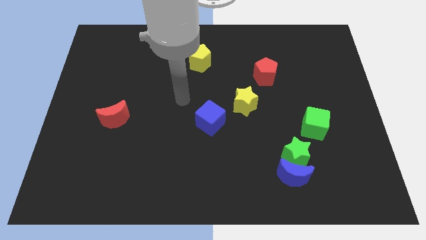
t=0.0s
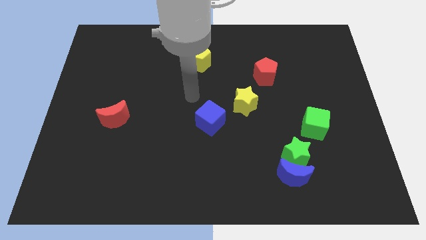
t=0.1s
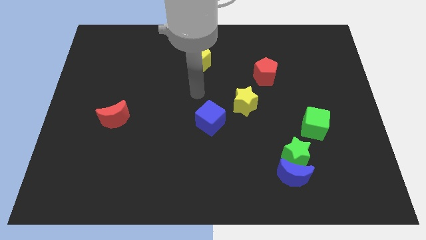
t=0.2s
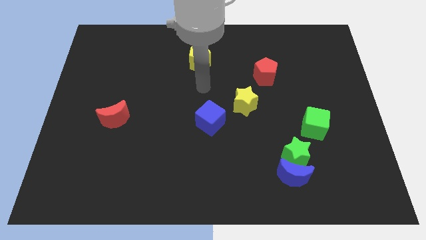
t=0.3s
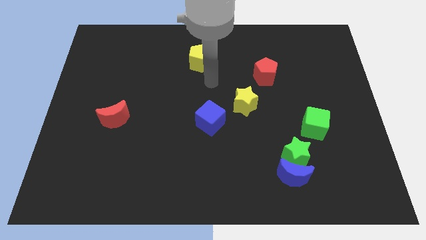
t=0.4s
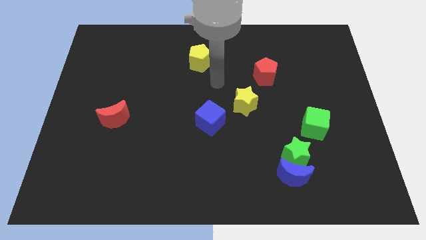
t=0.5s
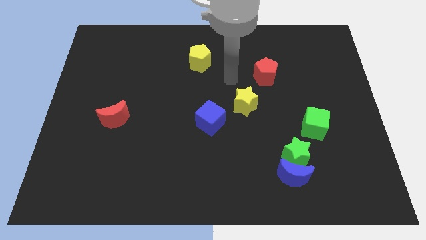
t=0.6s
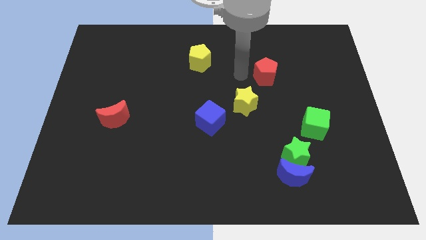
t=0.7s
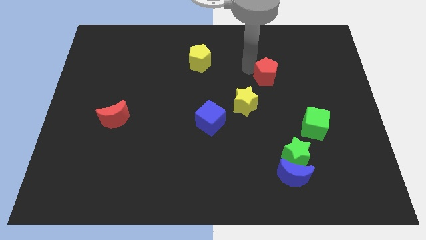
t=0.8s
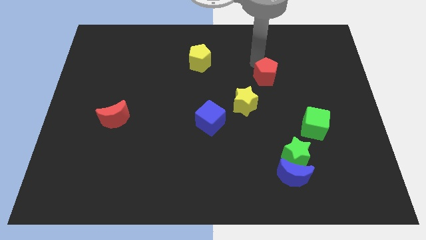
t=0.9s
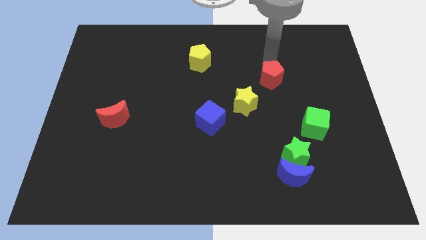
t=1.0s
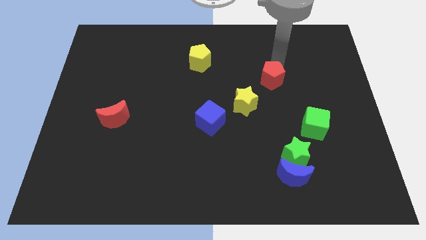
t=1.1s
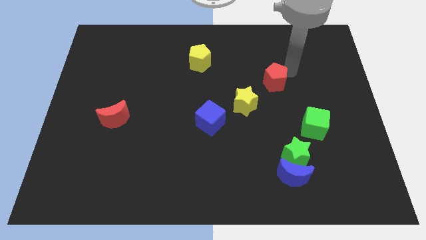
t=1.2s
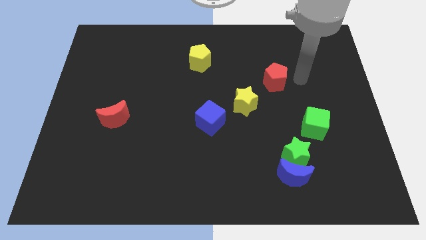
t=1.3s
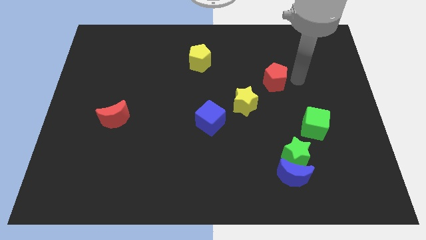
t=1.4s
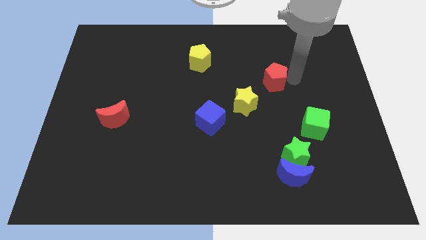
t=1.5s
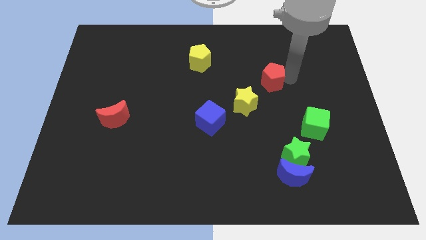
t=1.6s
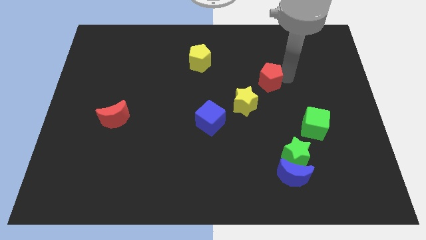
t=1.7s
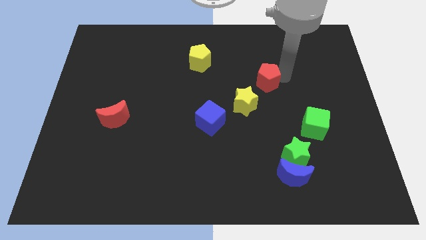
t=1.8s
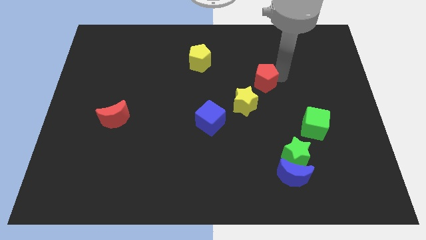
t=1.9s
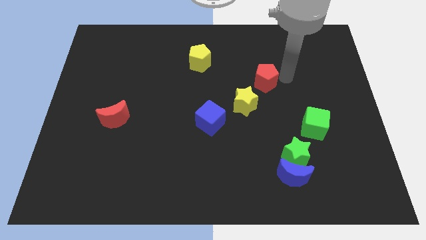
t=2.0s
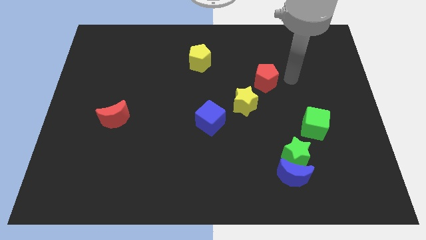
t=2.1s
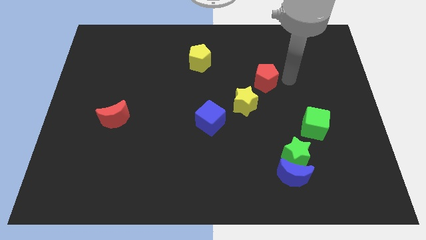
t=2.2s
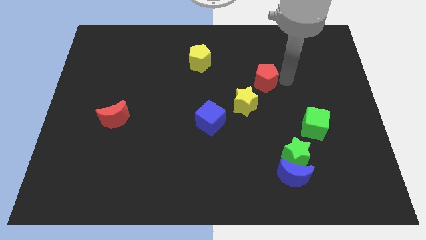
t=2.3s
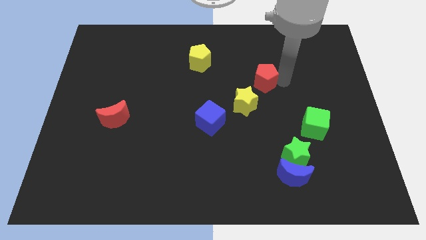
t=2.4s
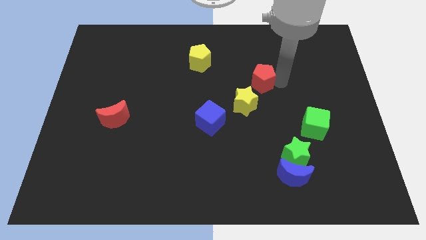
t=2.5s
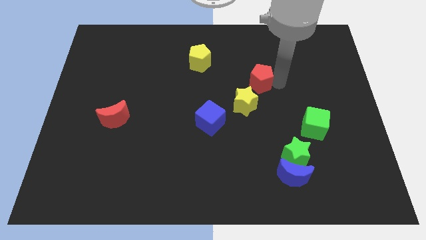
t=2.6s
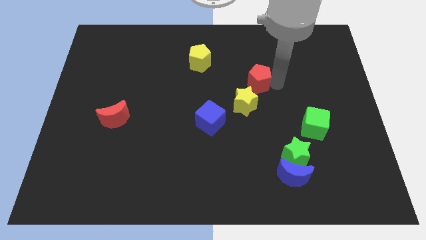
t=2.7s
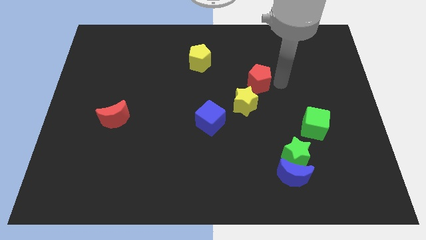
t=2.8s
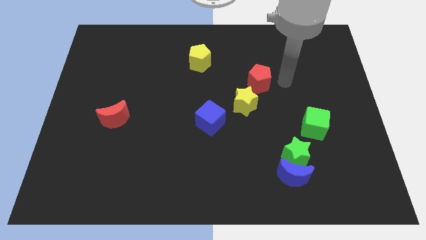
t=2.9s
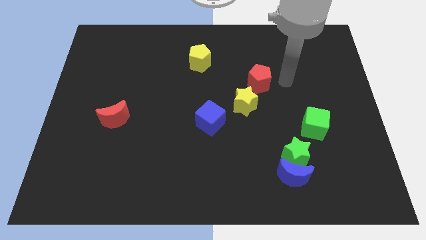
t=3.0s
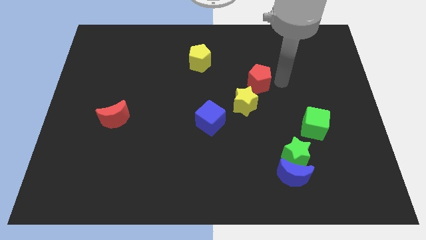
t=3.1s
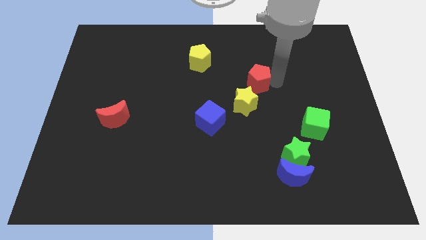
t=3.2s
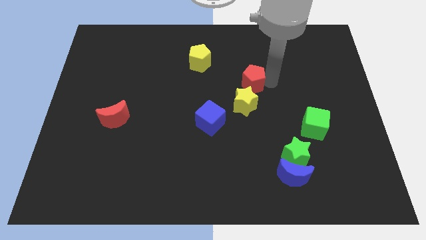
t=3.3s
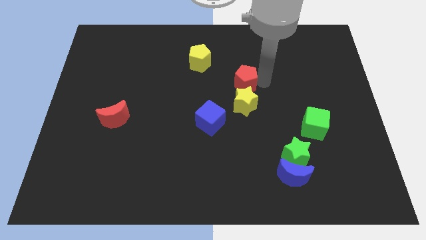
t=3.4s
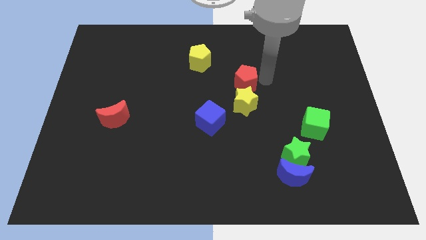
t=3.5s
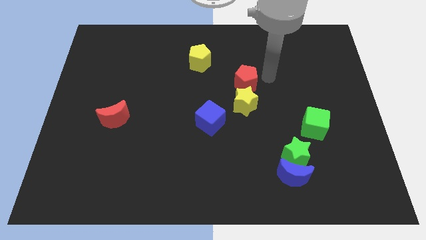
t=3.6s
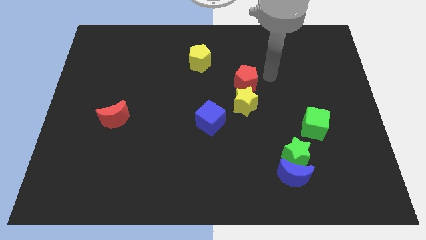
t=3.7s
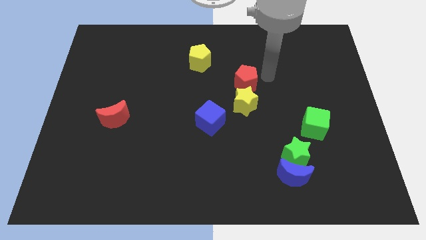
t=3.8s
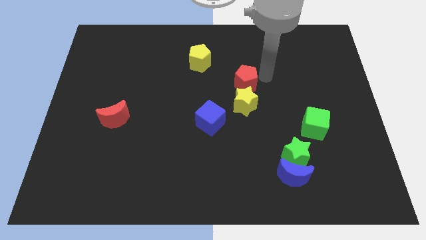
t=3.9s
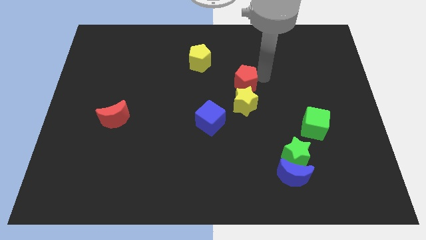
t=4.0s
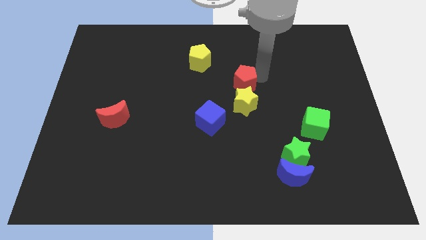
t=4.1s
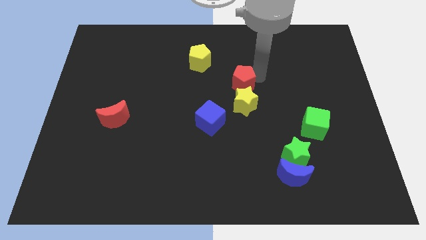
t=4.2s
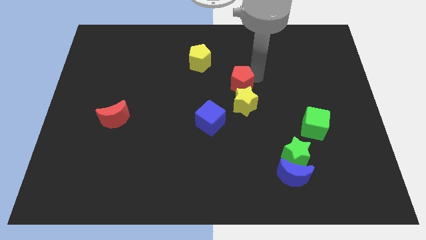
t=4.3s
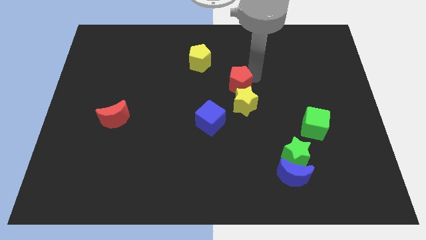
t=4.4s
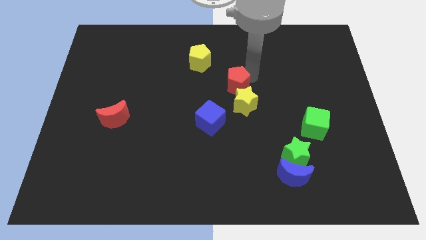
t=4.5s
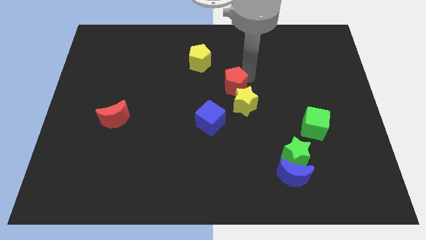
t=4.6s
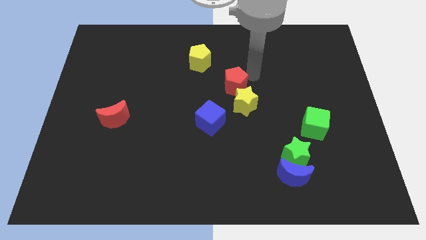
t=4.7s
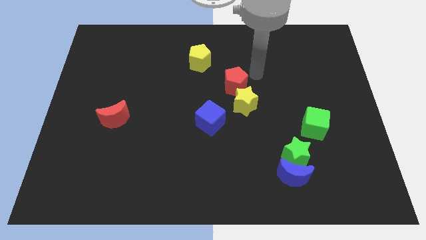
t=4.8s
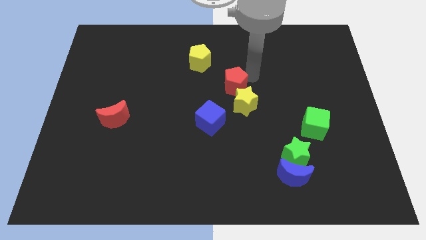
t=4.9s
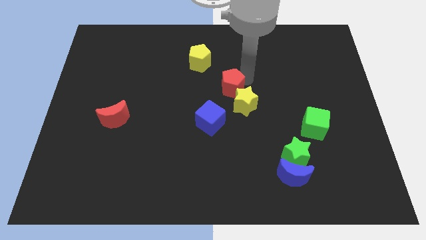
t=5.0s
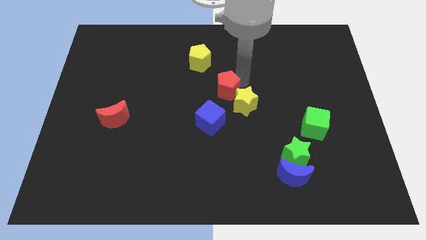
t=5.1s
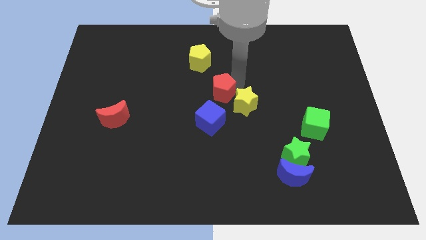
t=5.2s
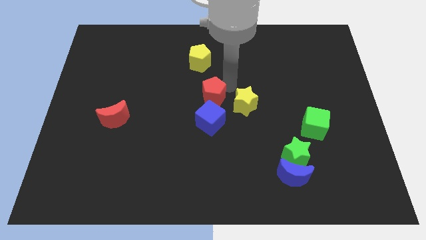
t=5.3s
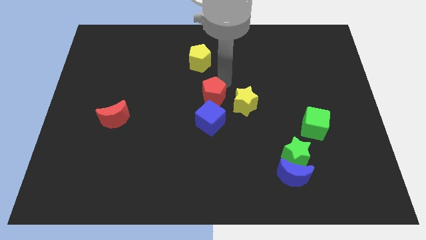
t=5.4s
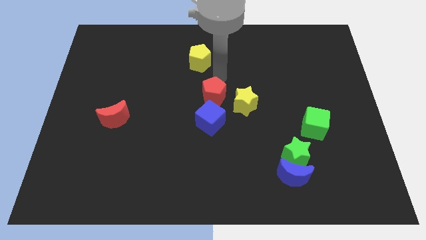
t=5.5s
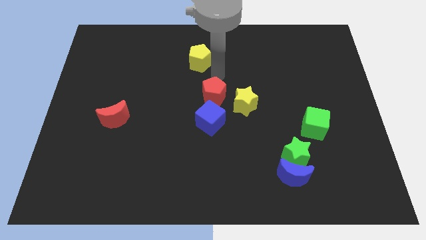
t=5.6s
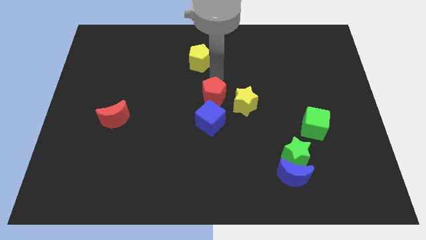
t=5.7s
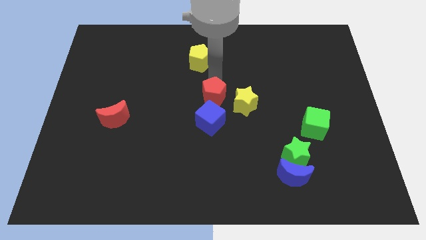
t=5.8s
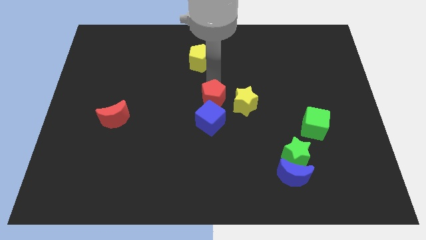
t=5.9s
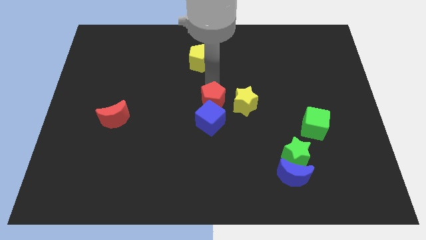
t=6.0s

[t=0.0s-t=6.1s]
put the red pentagon to the blue cube

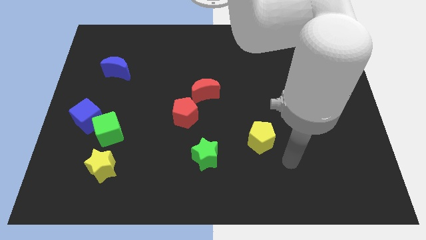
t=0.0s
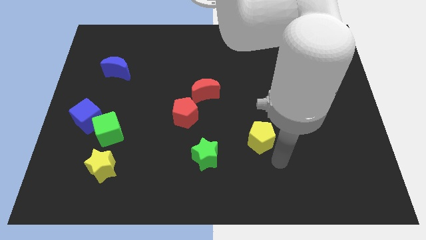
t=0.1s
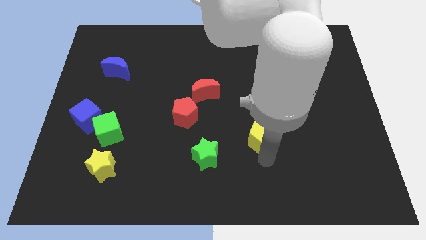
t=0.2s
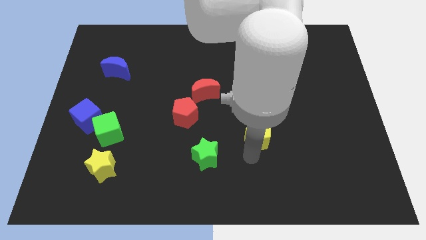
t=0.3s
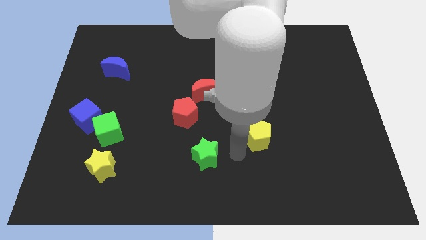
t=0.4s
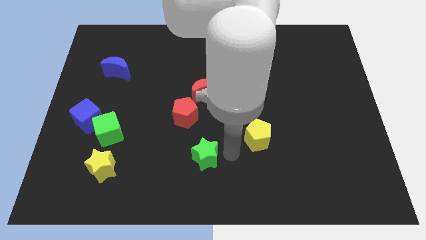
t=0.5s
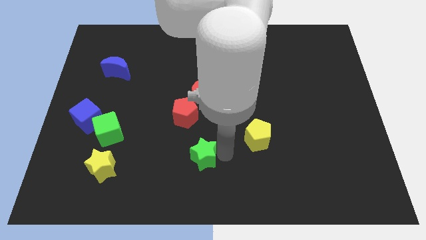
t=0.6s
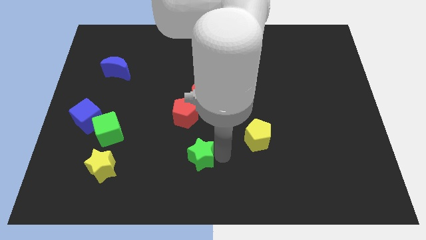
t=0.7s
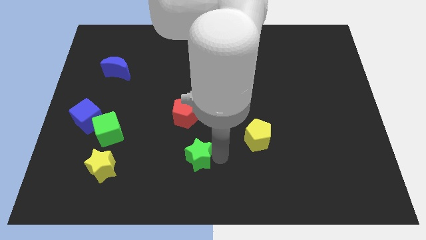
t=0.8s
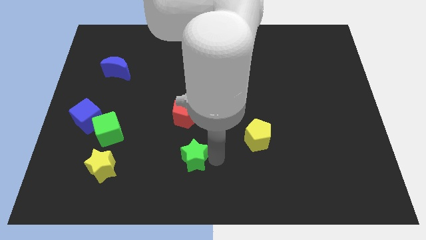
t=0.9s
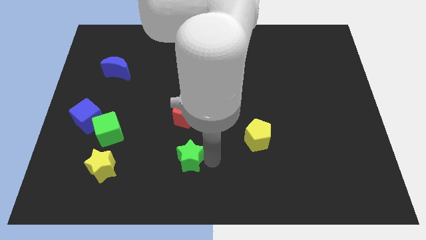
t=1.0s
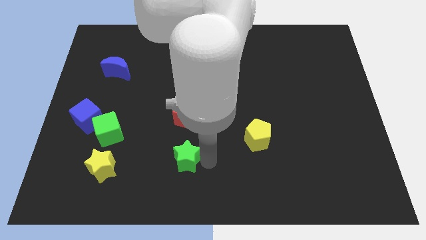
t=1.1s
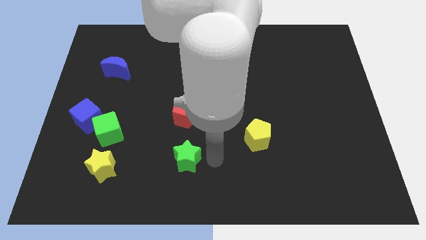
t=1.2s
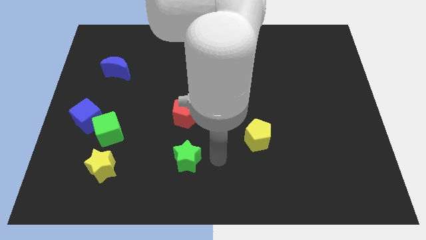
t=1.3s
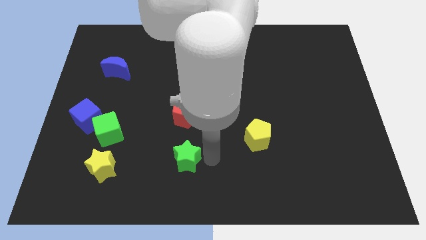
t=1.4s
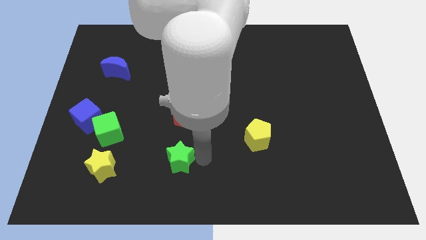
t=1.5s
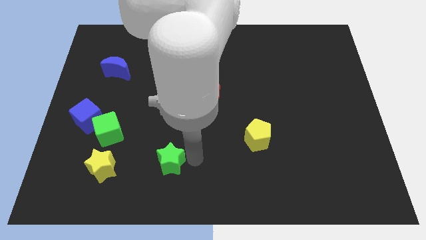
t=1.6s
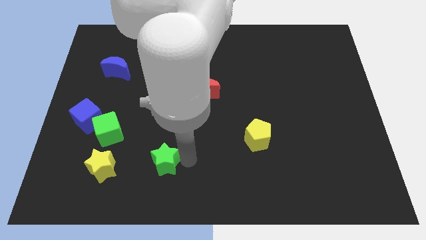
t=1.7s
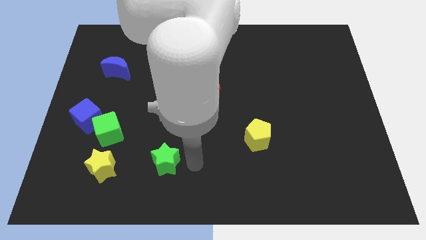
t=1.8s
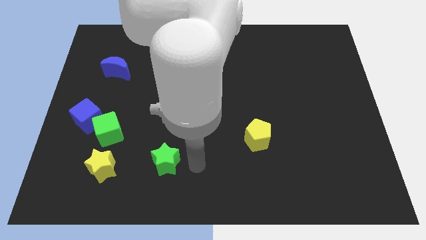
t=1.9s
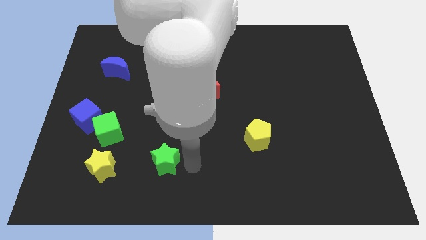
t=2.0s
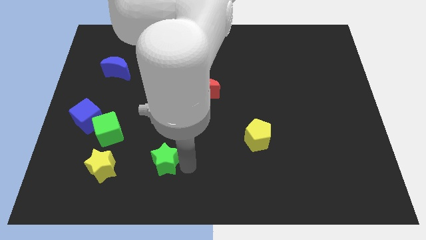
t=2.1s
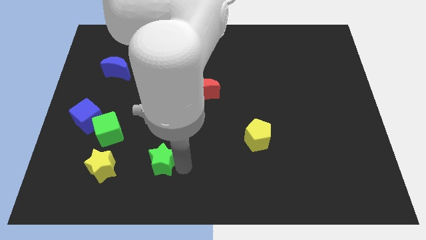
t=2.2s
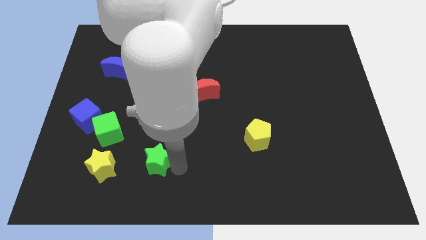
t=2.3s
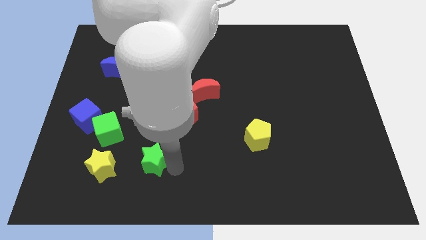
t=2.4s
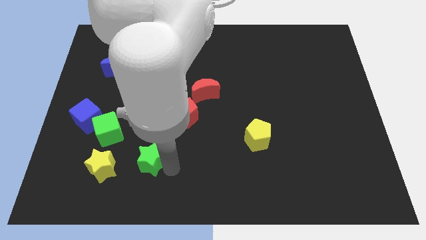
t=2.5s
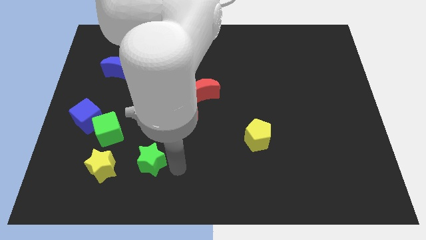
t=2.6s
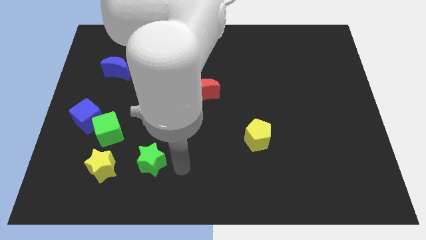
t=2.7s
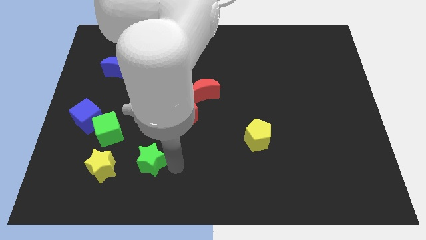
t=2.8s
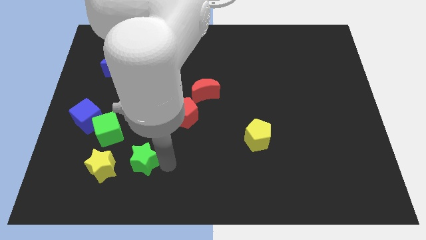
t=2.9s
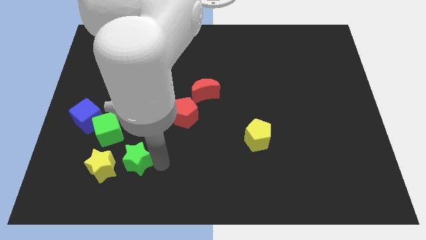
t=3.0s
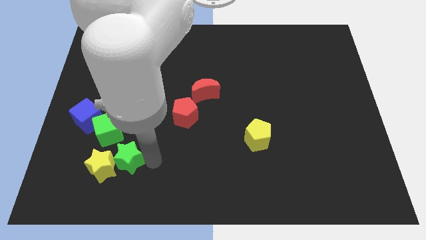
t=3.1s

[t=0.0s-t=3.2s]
move the green star to the yellow star
